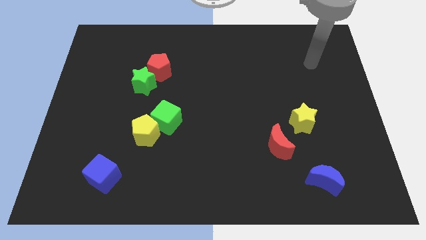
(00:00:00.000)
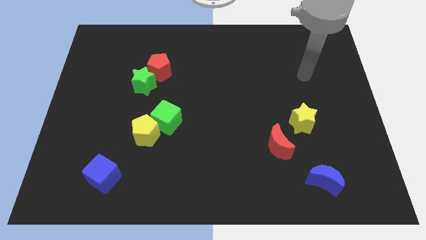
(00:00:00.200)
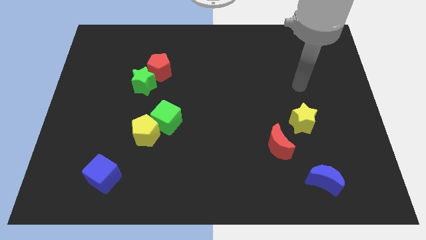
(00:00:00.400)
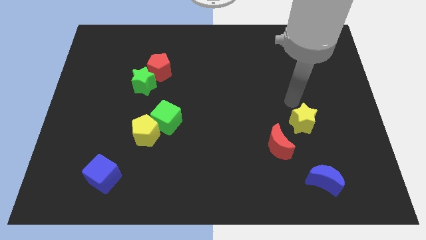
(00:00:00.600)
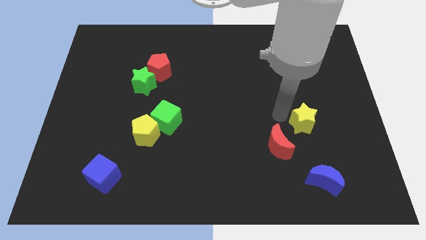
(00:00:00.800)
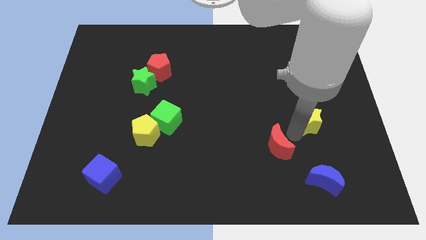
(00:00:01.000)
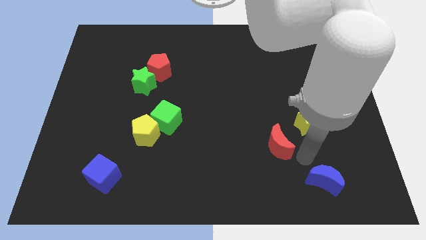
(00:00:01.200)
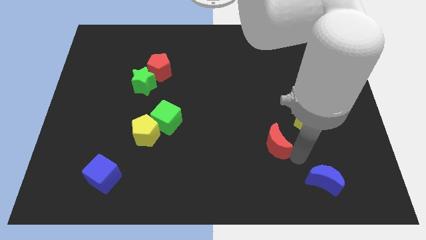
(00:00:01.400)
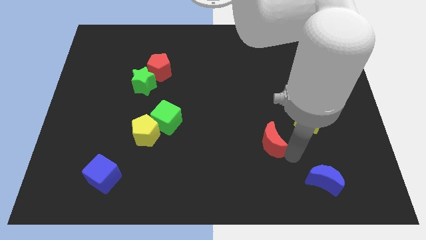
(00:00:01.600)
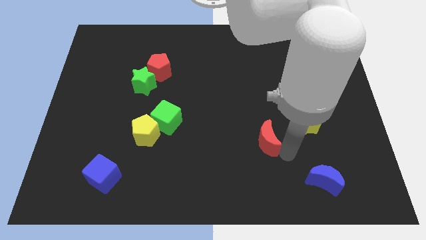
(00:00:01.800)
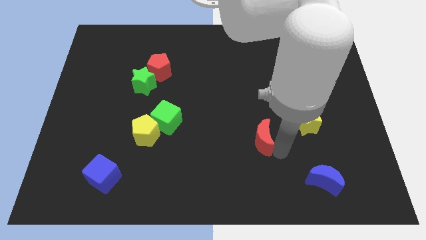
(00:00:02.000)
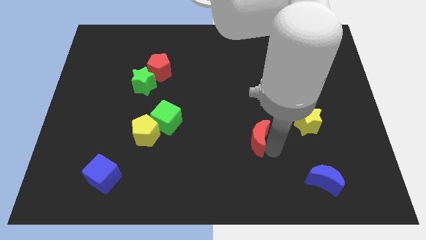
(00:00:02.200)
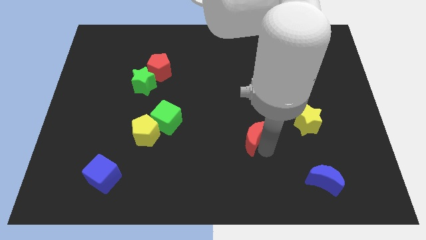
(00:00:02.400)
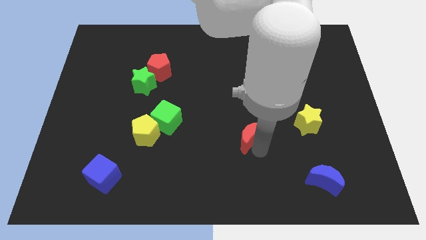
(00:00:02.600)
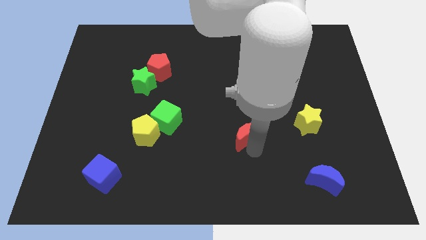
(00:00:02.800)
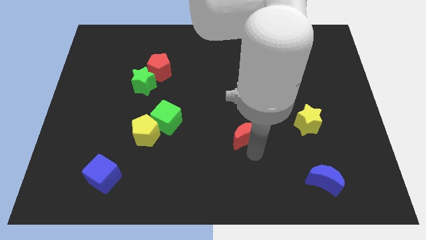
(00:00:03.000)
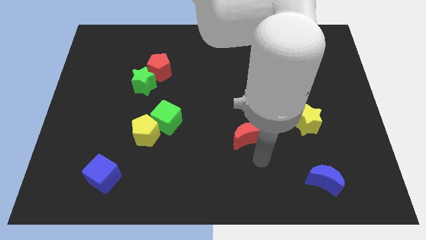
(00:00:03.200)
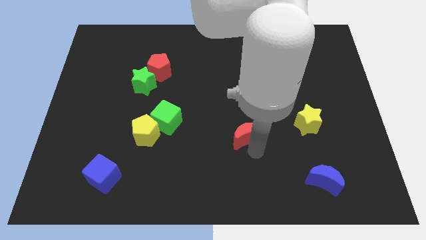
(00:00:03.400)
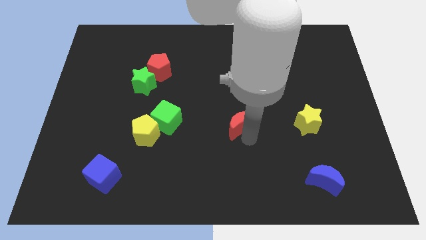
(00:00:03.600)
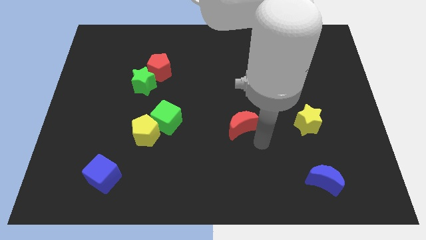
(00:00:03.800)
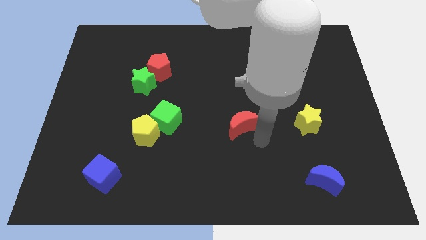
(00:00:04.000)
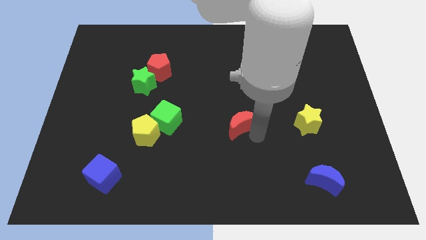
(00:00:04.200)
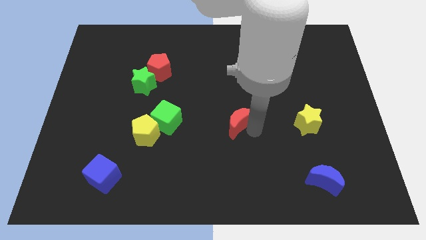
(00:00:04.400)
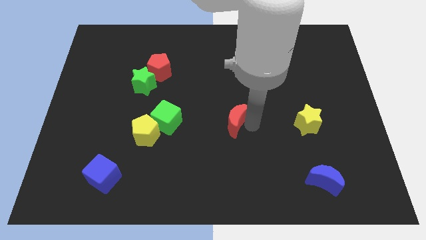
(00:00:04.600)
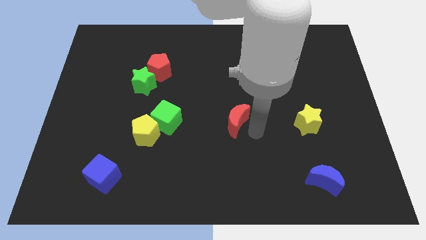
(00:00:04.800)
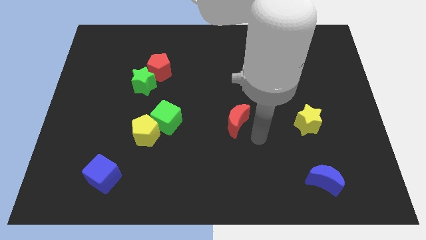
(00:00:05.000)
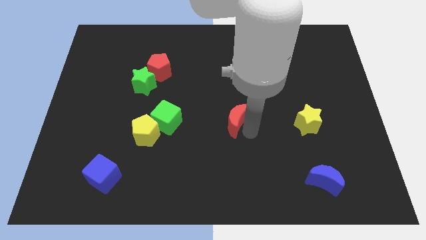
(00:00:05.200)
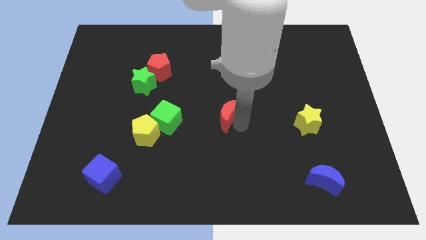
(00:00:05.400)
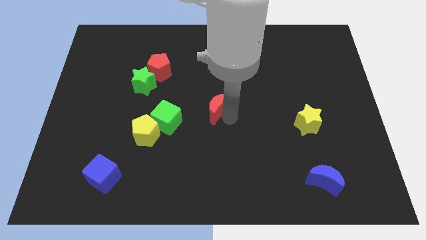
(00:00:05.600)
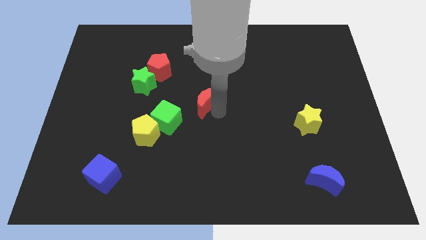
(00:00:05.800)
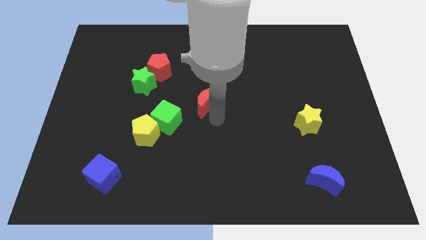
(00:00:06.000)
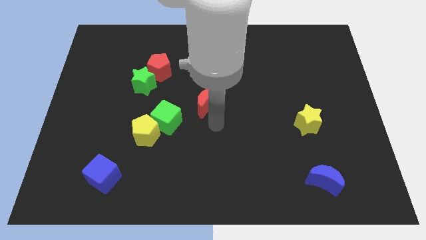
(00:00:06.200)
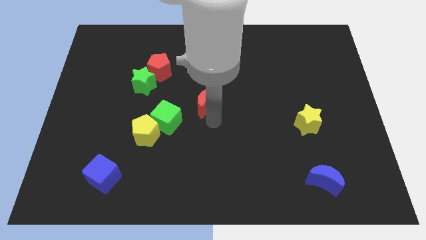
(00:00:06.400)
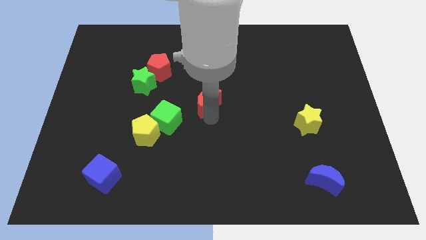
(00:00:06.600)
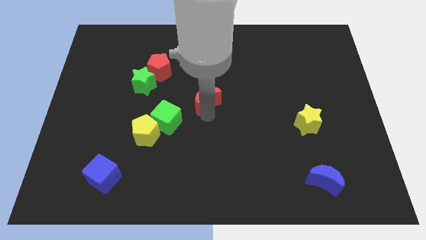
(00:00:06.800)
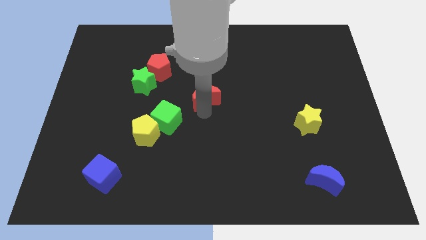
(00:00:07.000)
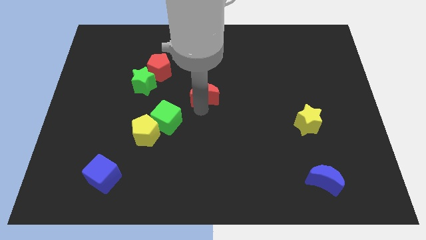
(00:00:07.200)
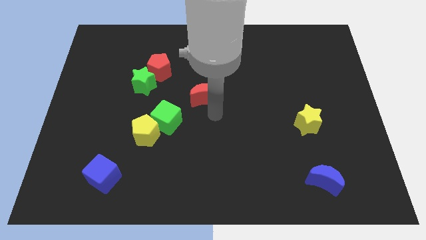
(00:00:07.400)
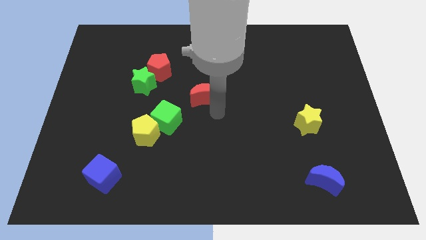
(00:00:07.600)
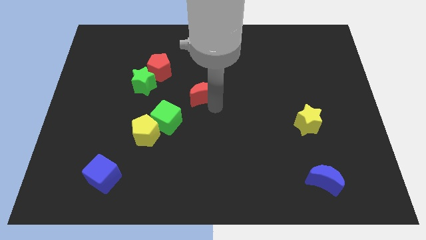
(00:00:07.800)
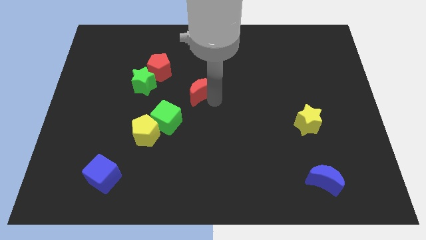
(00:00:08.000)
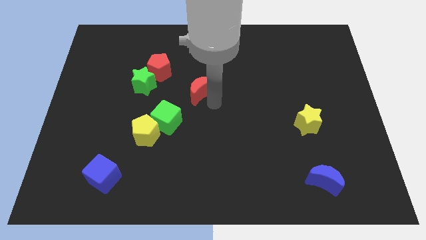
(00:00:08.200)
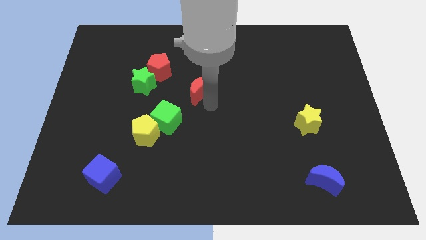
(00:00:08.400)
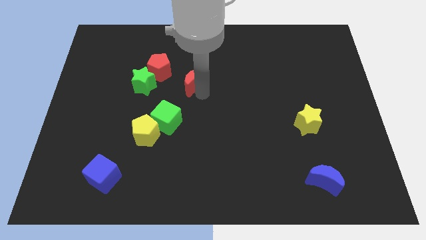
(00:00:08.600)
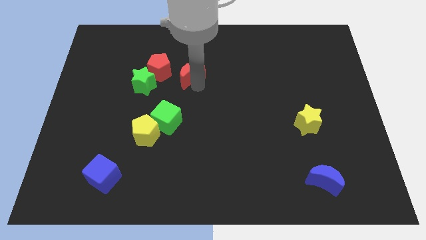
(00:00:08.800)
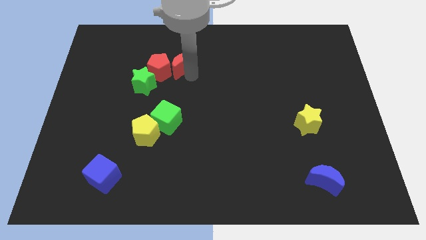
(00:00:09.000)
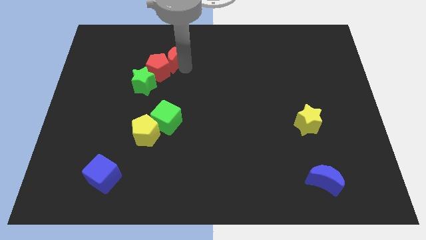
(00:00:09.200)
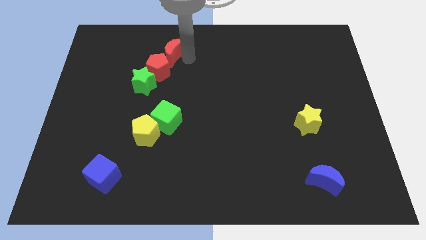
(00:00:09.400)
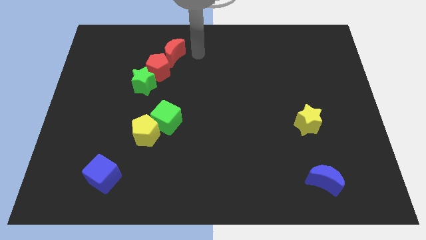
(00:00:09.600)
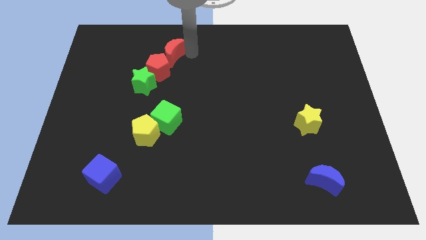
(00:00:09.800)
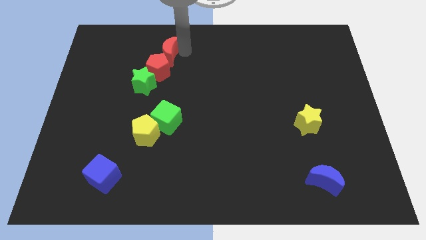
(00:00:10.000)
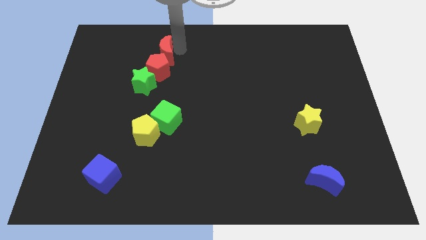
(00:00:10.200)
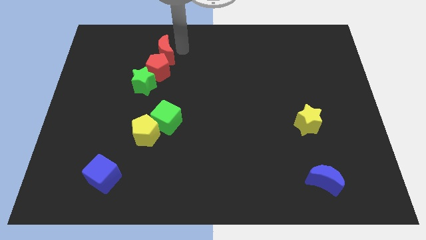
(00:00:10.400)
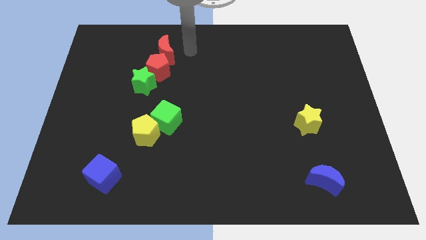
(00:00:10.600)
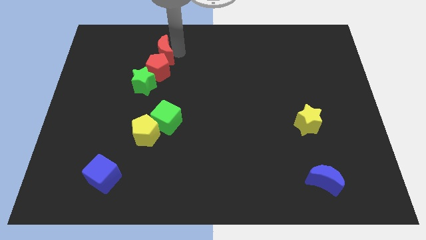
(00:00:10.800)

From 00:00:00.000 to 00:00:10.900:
put the red moon to the top left of the red pentagon

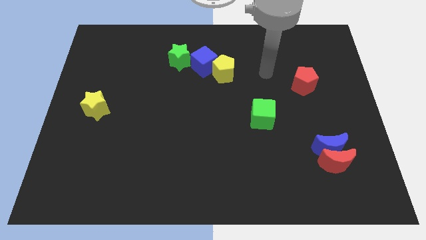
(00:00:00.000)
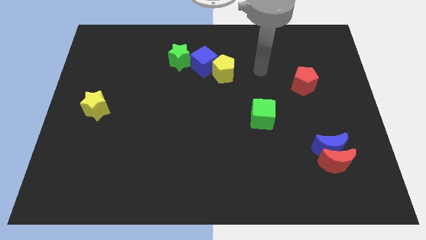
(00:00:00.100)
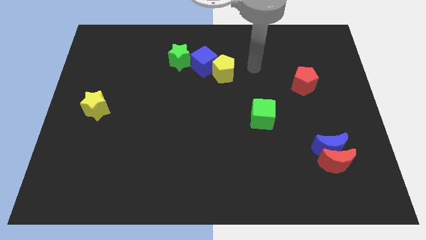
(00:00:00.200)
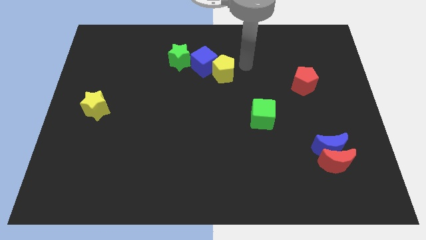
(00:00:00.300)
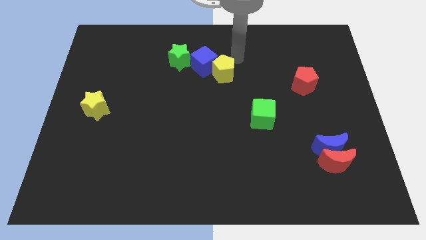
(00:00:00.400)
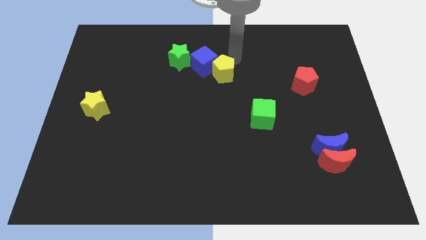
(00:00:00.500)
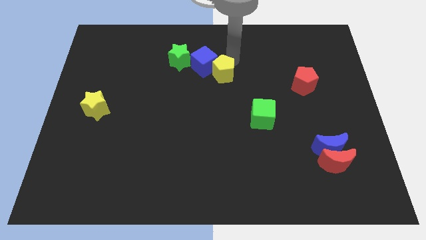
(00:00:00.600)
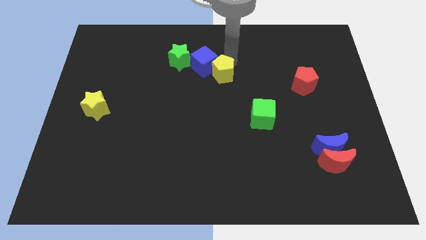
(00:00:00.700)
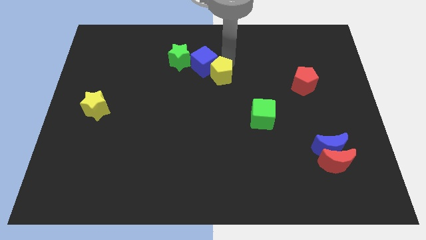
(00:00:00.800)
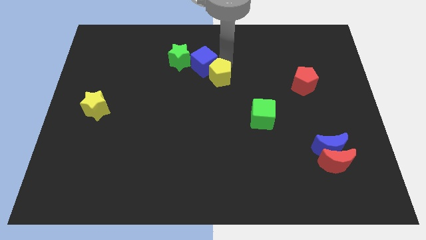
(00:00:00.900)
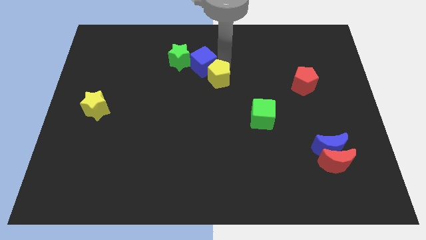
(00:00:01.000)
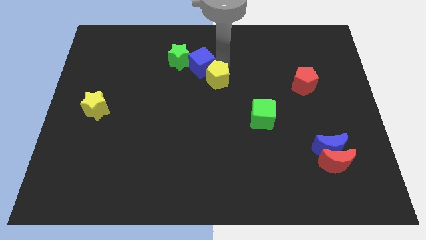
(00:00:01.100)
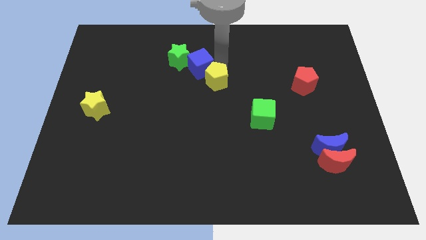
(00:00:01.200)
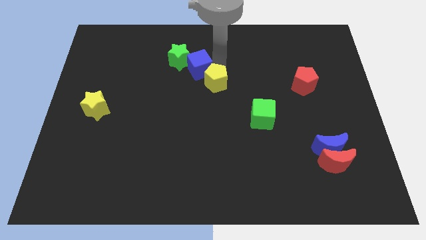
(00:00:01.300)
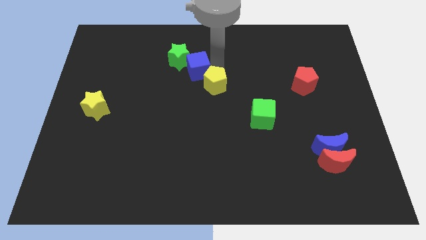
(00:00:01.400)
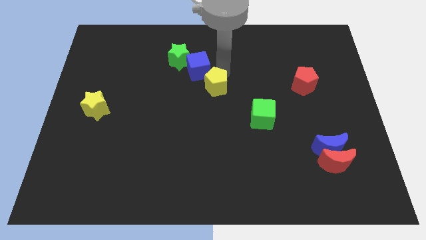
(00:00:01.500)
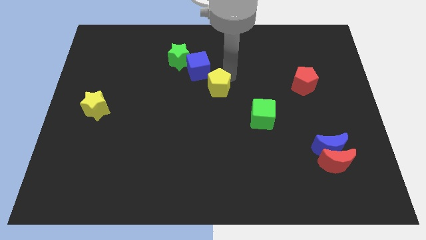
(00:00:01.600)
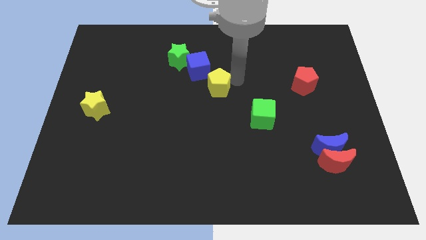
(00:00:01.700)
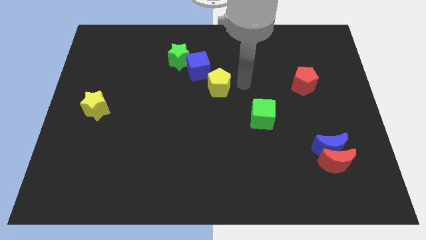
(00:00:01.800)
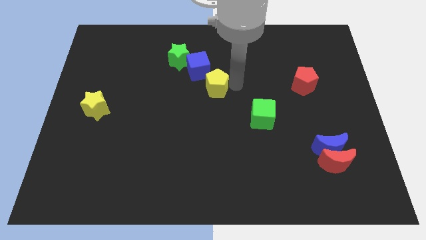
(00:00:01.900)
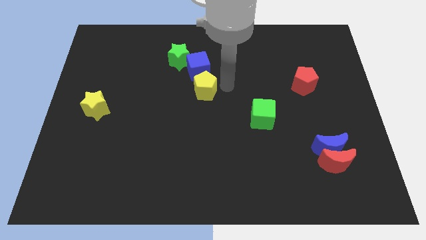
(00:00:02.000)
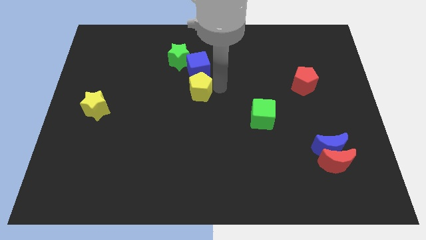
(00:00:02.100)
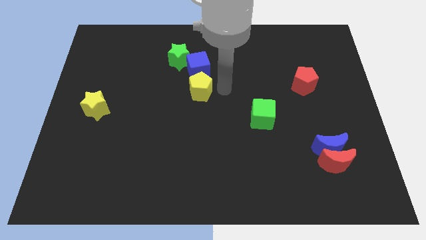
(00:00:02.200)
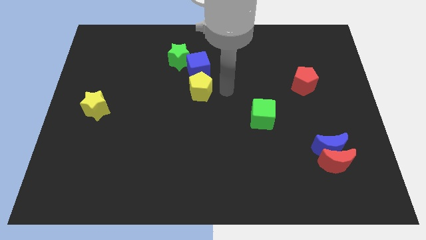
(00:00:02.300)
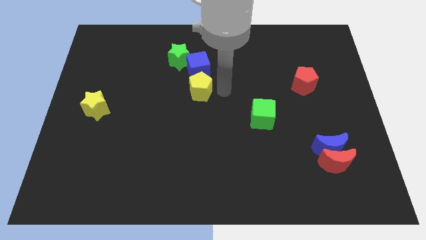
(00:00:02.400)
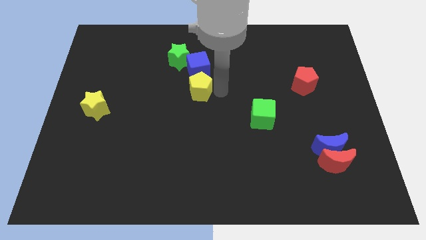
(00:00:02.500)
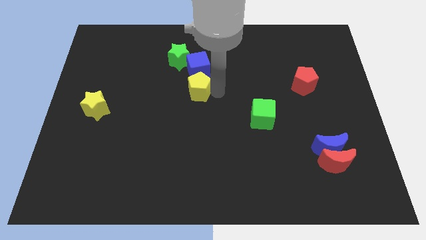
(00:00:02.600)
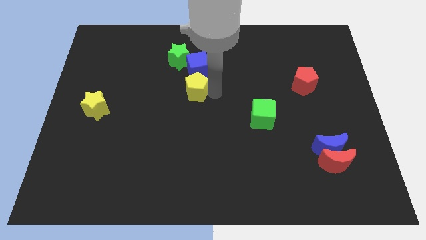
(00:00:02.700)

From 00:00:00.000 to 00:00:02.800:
move the yellow pentagon below the green star
